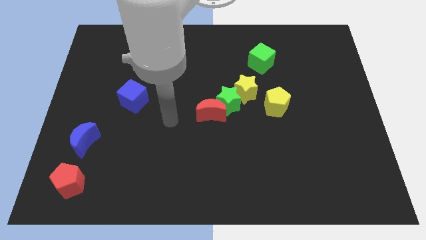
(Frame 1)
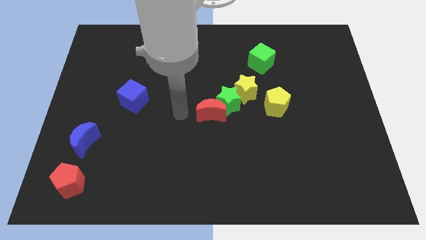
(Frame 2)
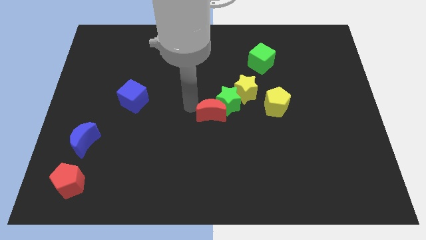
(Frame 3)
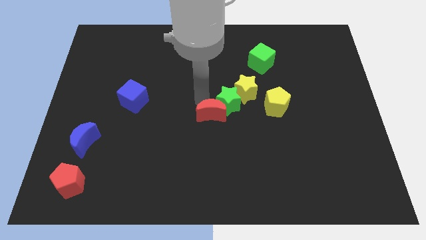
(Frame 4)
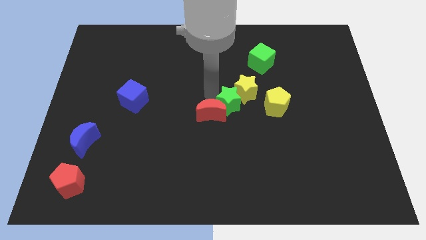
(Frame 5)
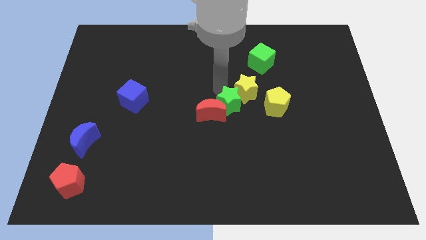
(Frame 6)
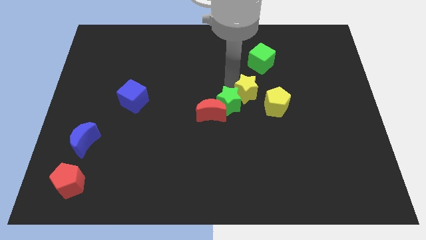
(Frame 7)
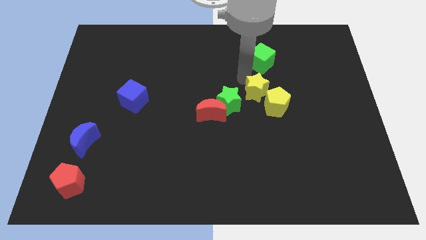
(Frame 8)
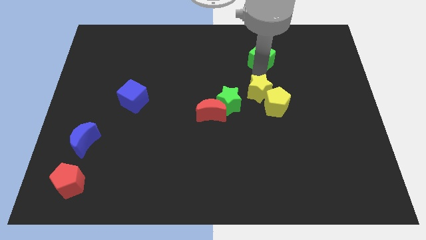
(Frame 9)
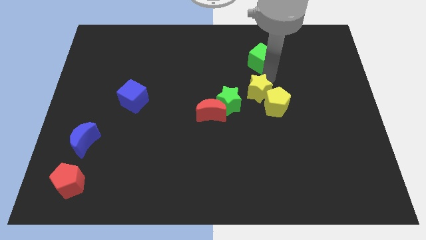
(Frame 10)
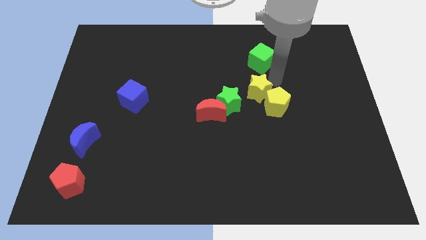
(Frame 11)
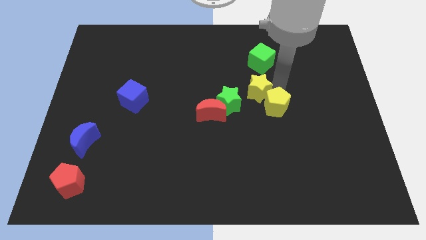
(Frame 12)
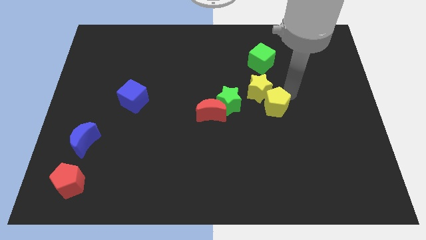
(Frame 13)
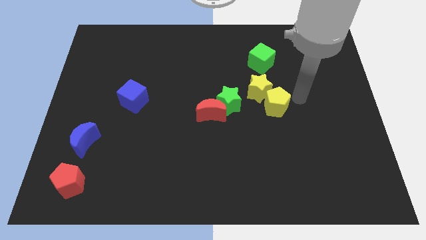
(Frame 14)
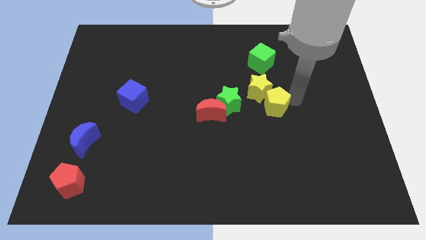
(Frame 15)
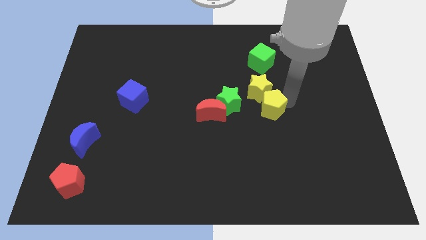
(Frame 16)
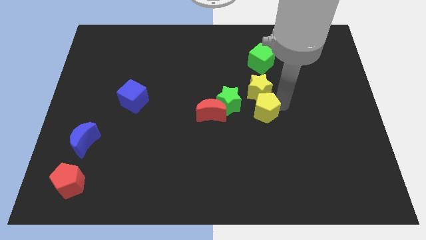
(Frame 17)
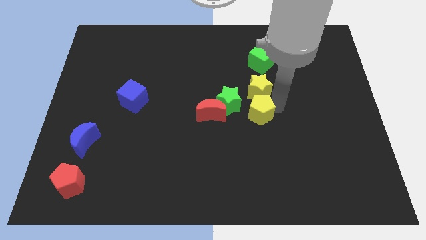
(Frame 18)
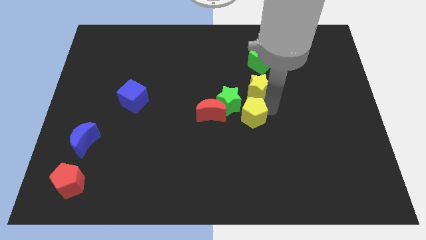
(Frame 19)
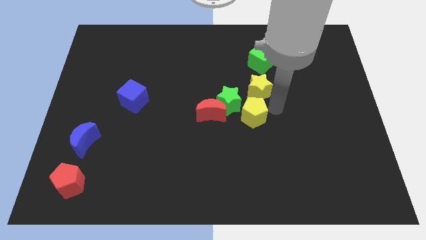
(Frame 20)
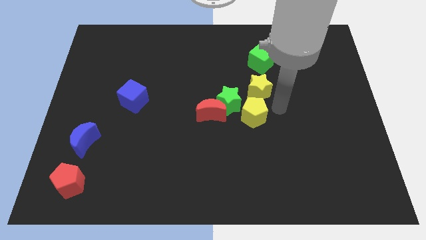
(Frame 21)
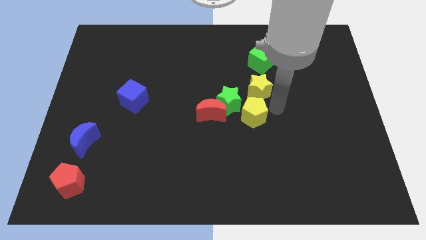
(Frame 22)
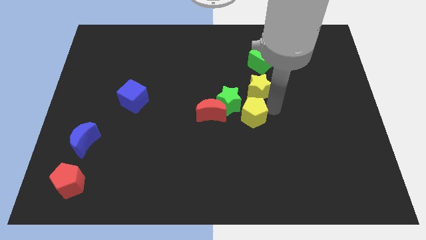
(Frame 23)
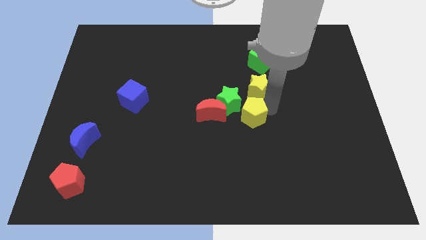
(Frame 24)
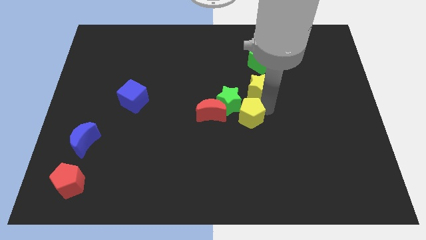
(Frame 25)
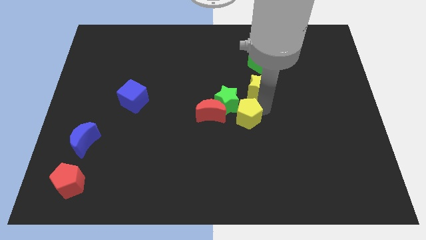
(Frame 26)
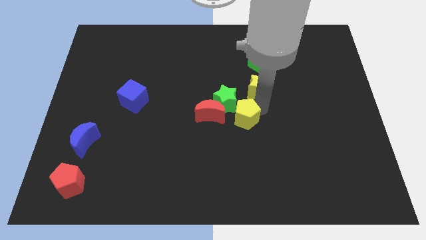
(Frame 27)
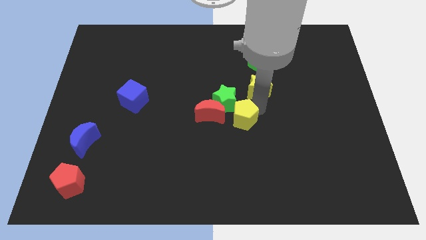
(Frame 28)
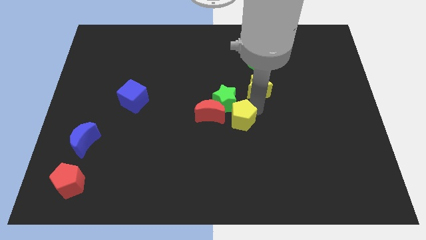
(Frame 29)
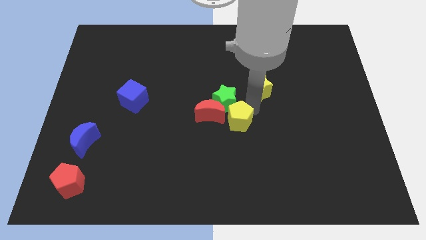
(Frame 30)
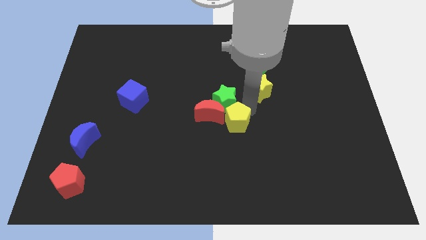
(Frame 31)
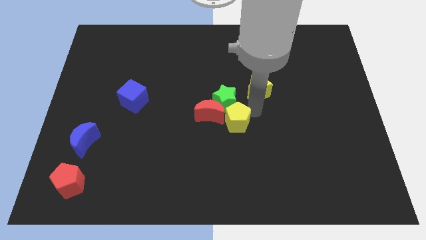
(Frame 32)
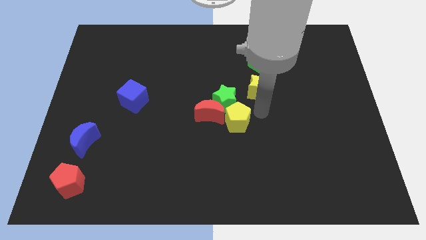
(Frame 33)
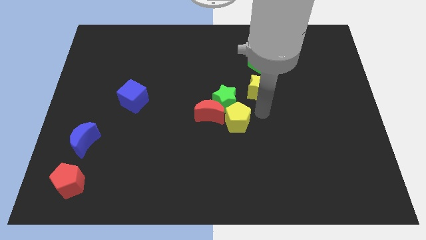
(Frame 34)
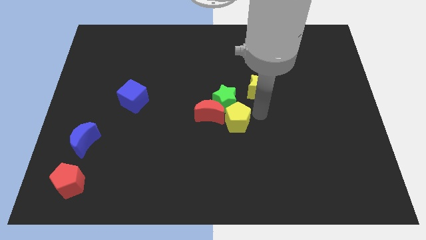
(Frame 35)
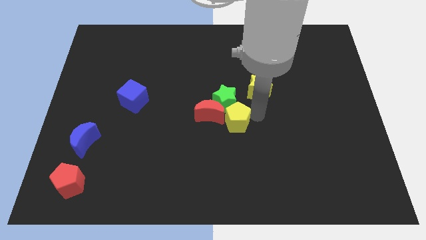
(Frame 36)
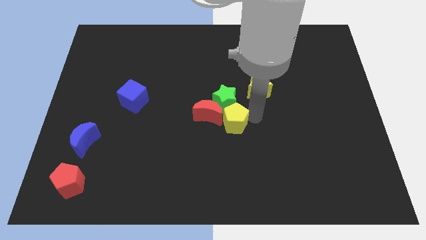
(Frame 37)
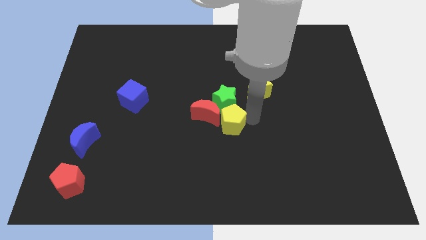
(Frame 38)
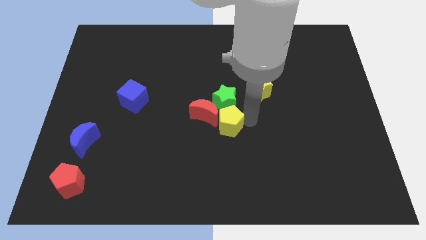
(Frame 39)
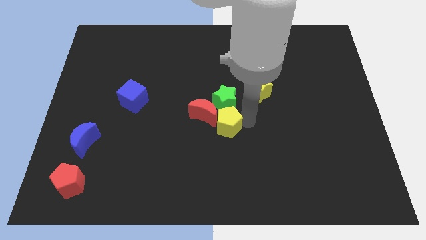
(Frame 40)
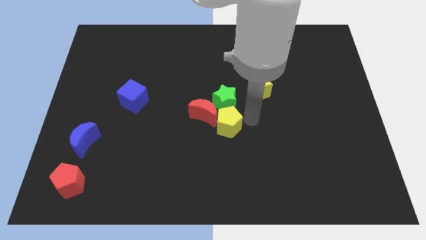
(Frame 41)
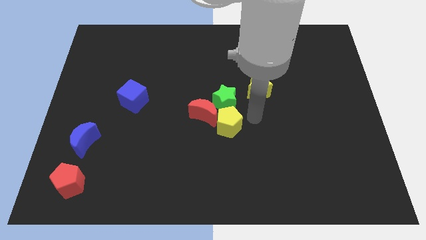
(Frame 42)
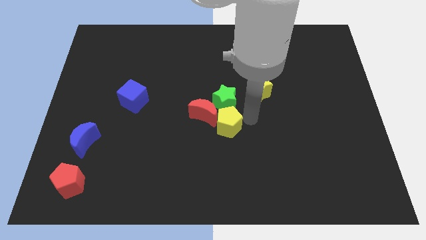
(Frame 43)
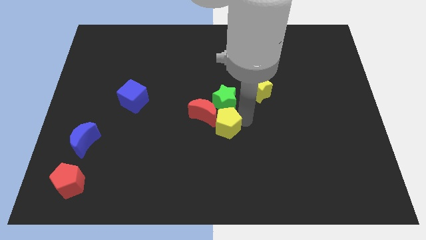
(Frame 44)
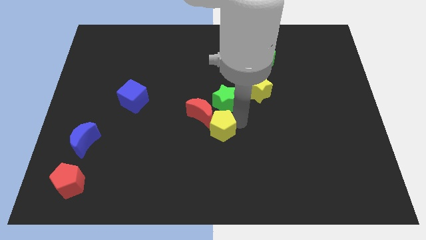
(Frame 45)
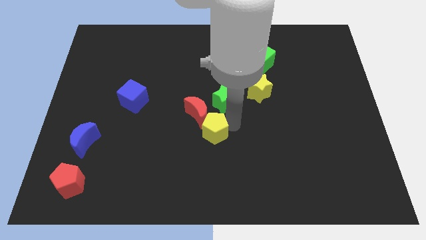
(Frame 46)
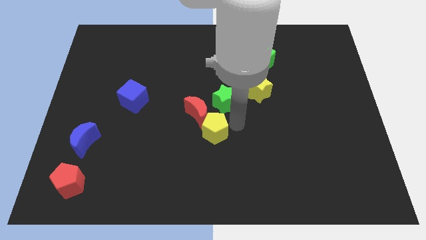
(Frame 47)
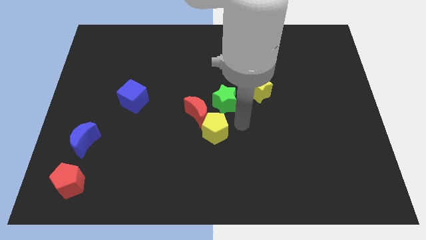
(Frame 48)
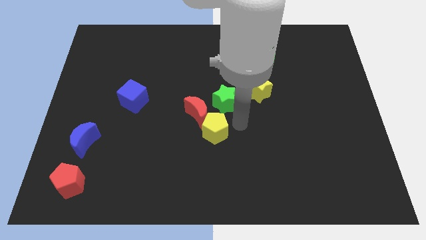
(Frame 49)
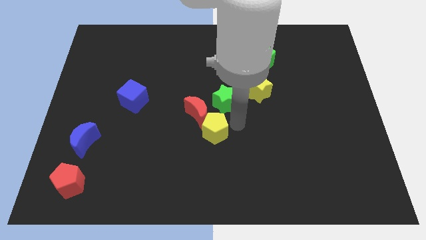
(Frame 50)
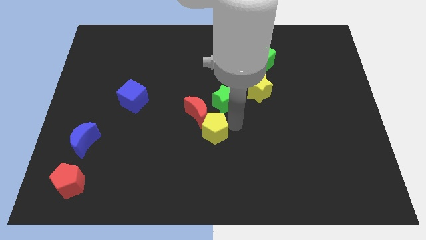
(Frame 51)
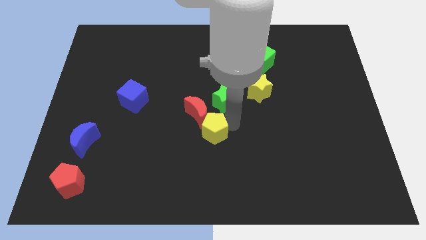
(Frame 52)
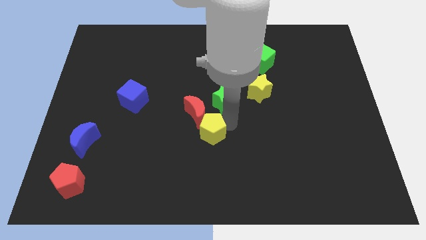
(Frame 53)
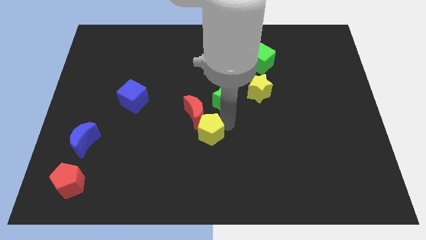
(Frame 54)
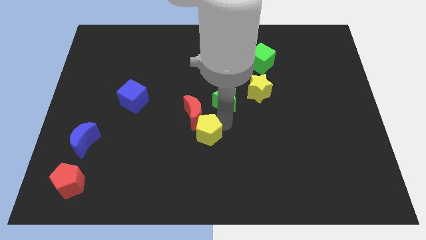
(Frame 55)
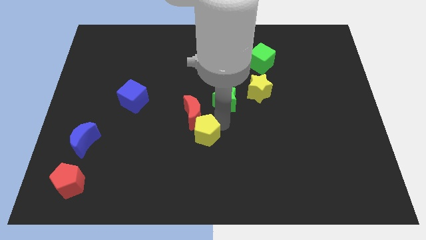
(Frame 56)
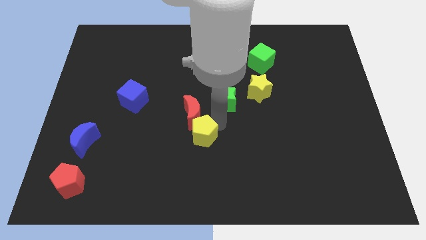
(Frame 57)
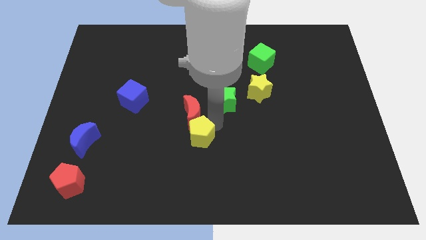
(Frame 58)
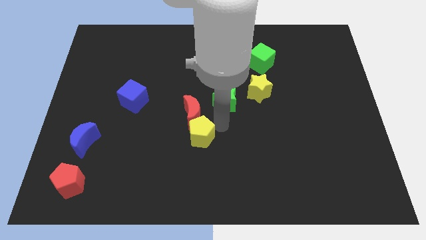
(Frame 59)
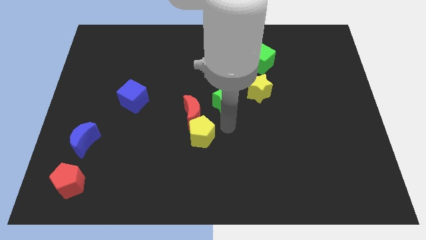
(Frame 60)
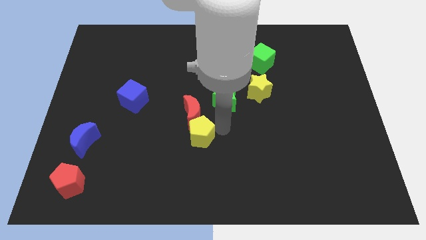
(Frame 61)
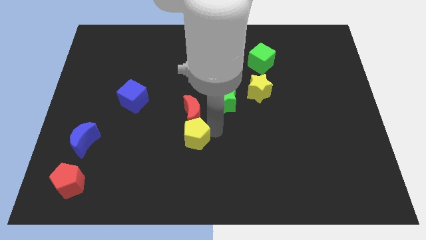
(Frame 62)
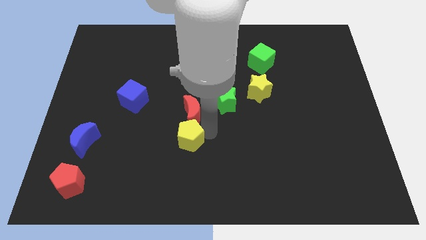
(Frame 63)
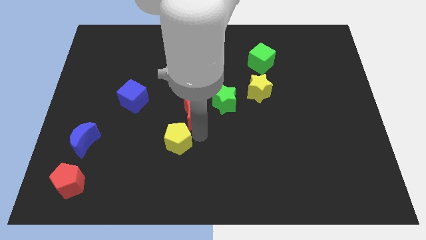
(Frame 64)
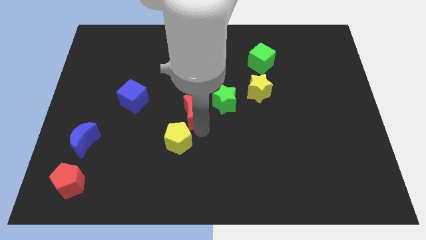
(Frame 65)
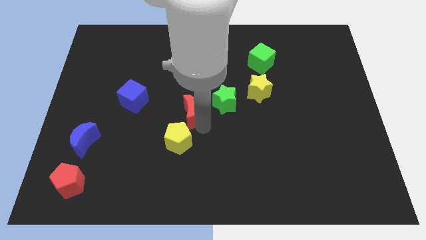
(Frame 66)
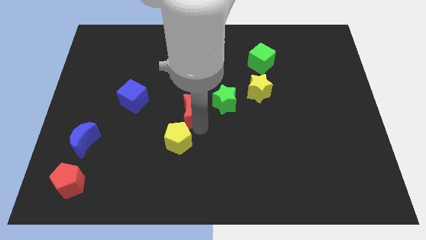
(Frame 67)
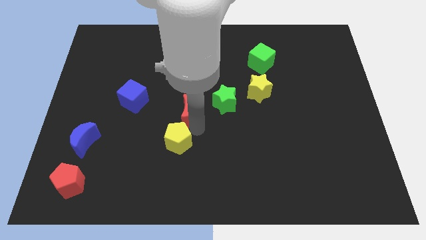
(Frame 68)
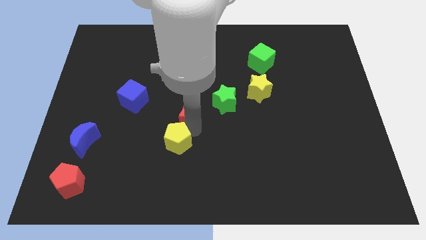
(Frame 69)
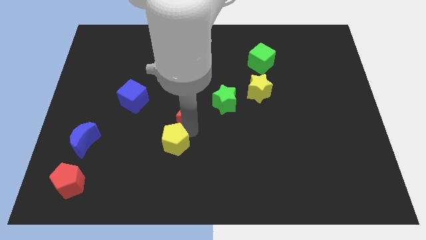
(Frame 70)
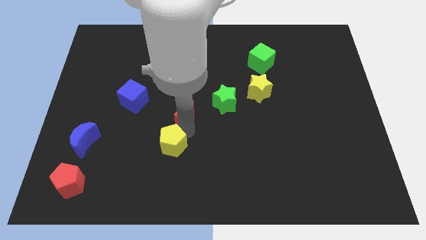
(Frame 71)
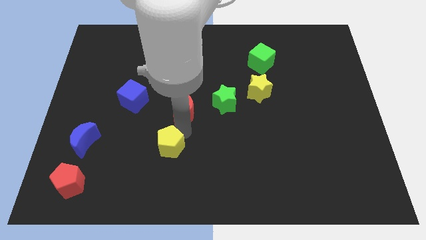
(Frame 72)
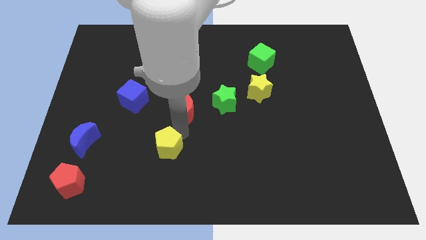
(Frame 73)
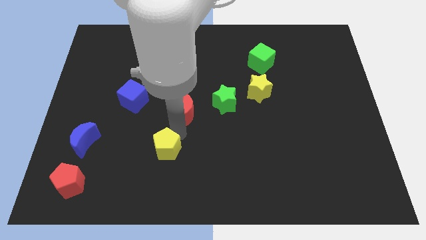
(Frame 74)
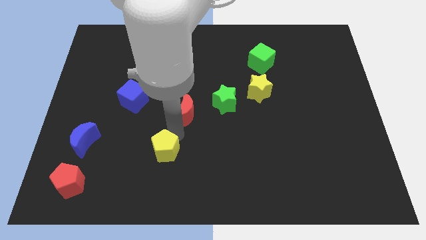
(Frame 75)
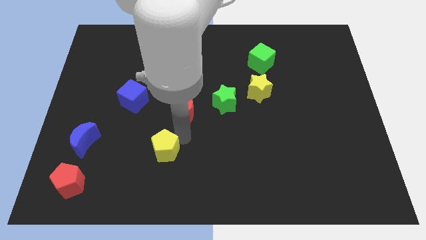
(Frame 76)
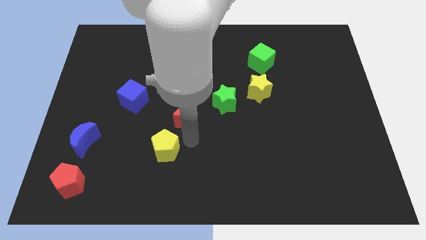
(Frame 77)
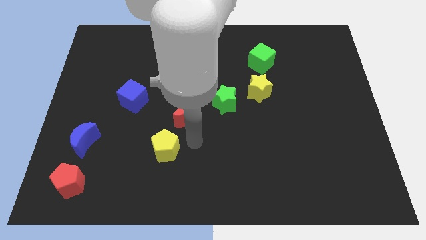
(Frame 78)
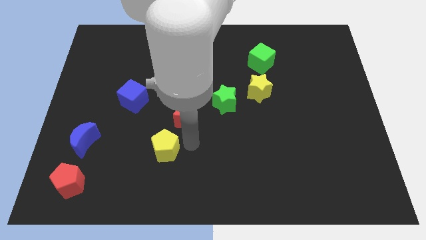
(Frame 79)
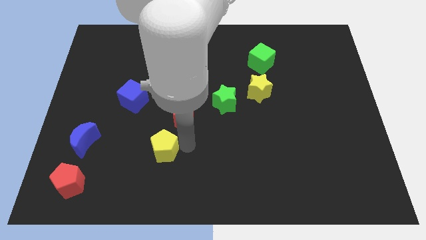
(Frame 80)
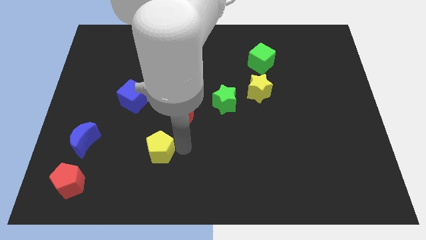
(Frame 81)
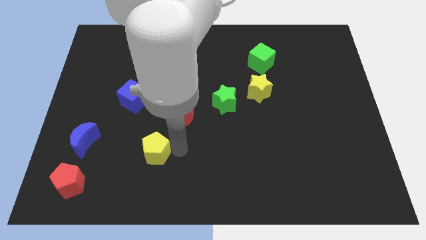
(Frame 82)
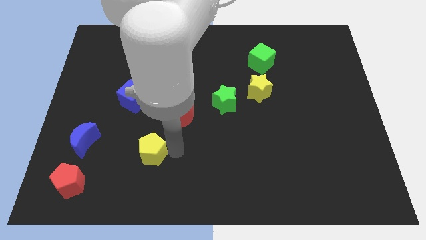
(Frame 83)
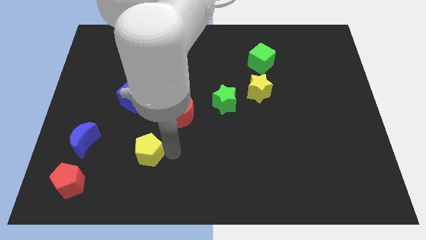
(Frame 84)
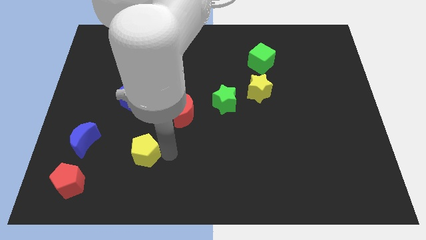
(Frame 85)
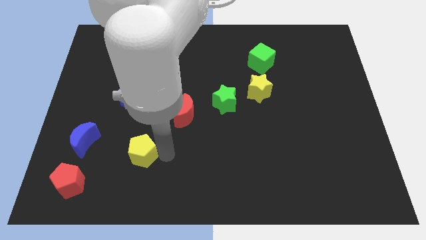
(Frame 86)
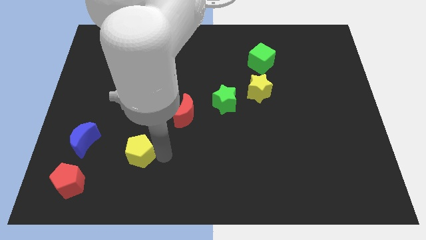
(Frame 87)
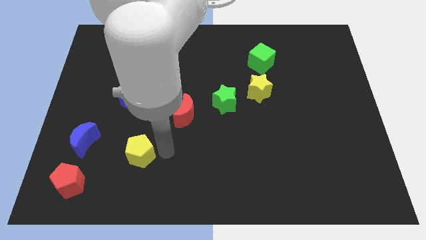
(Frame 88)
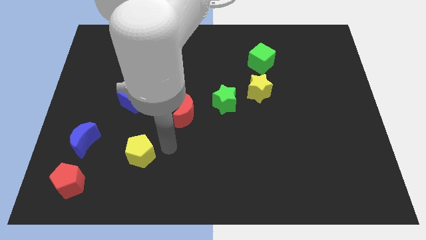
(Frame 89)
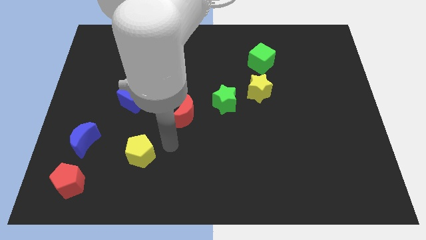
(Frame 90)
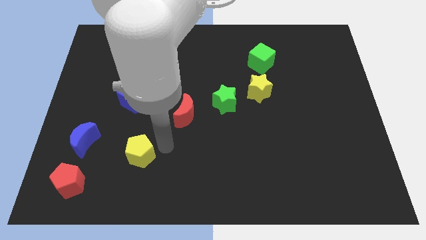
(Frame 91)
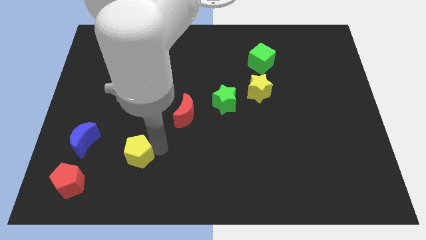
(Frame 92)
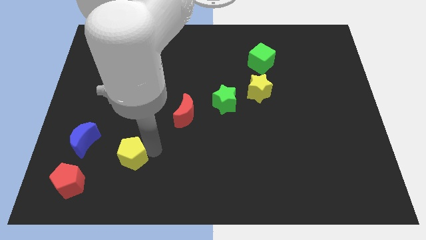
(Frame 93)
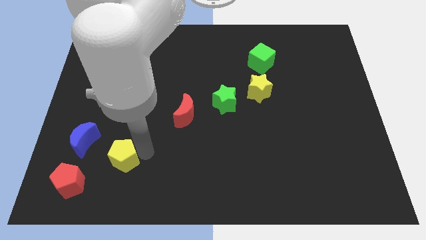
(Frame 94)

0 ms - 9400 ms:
move the yellow pentagon to the bottom right of the blue moon
